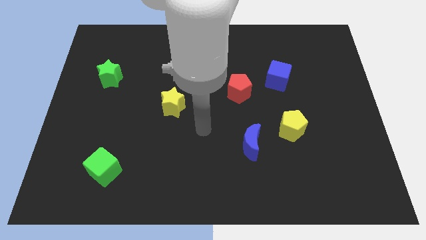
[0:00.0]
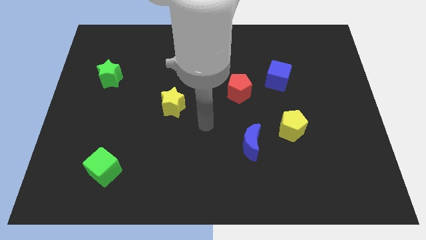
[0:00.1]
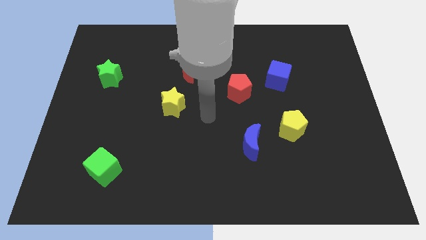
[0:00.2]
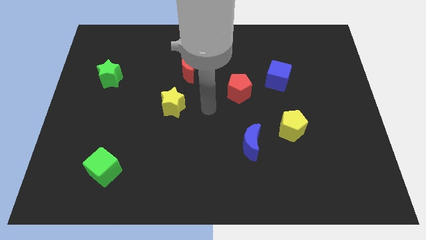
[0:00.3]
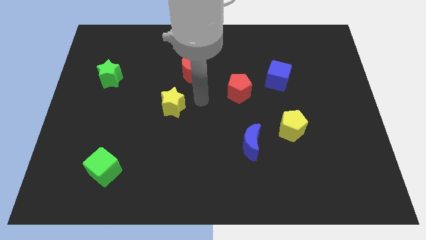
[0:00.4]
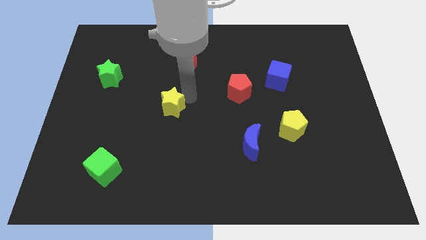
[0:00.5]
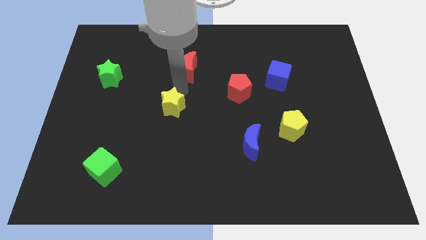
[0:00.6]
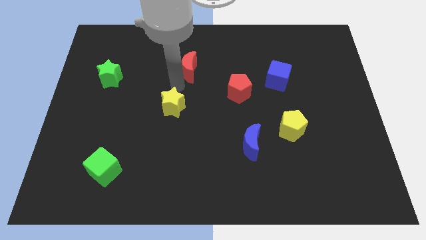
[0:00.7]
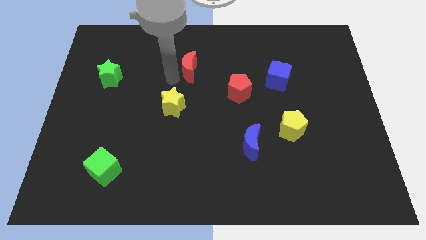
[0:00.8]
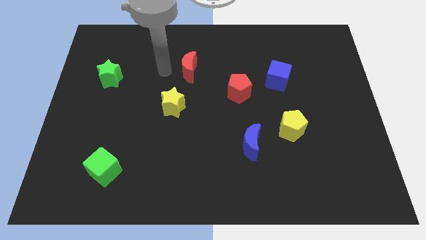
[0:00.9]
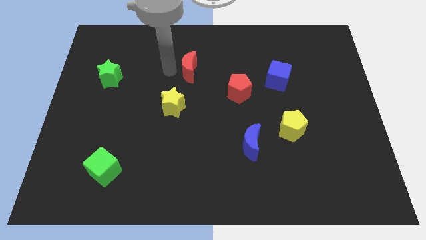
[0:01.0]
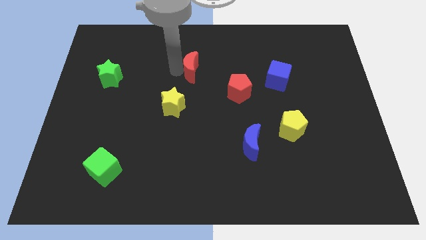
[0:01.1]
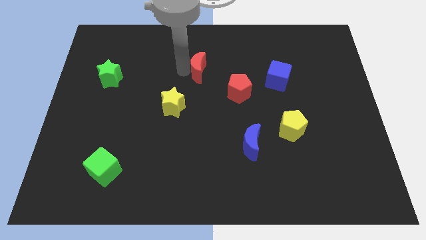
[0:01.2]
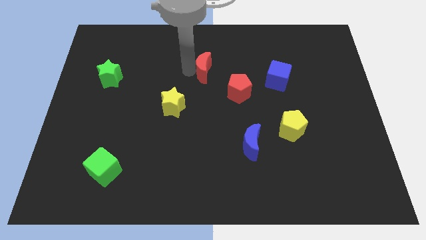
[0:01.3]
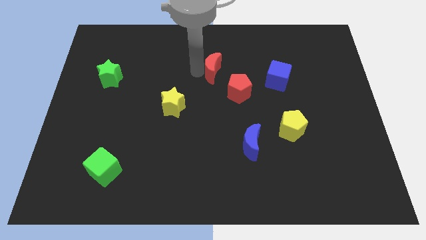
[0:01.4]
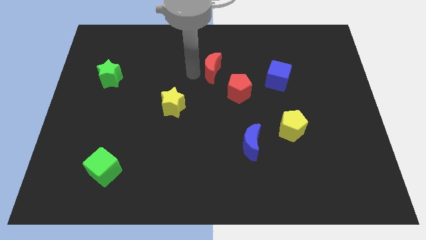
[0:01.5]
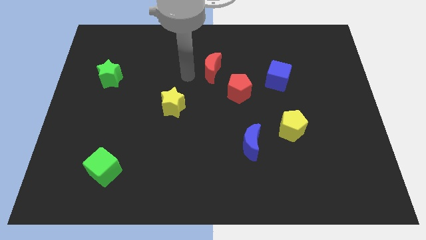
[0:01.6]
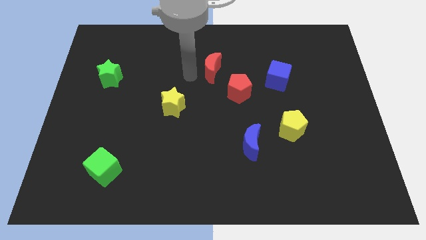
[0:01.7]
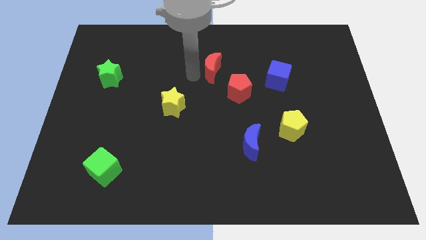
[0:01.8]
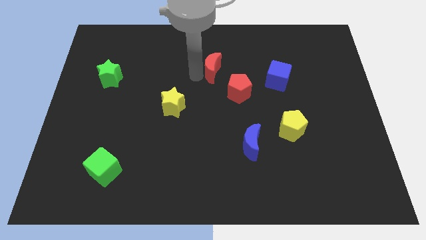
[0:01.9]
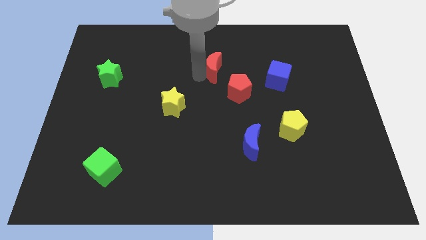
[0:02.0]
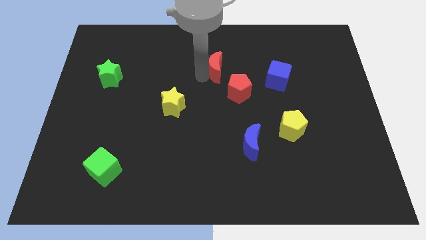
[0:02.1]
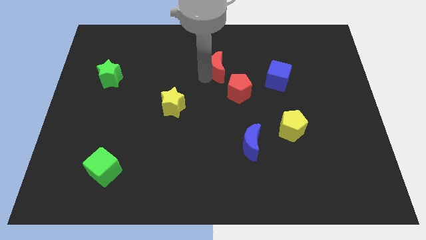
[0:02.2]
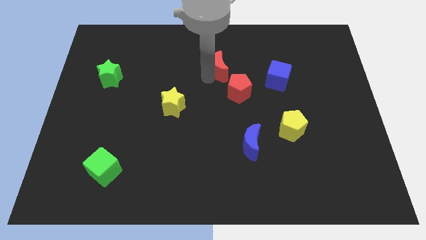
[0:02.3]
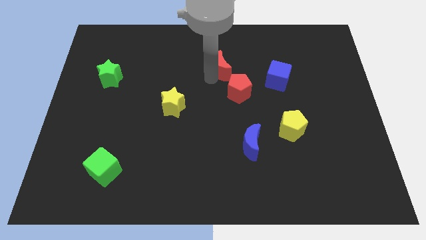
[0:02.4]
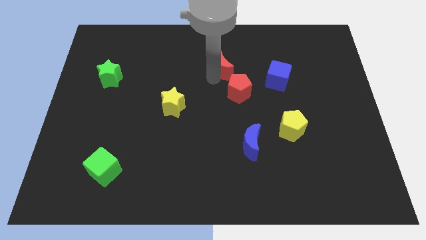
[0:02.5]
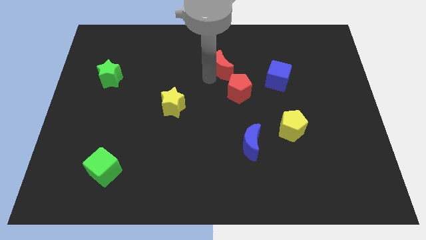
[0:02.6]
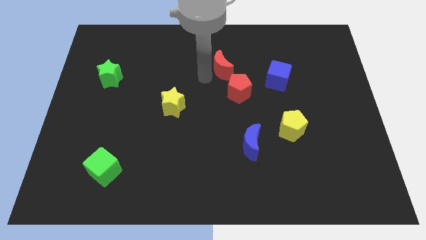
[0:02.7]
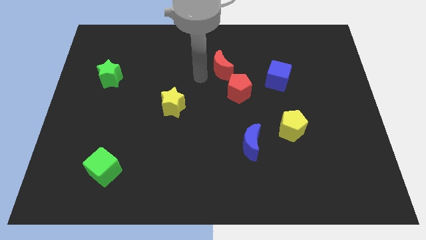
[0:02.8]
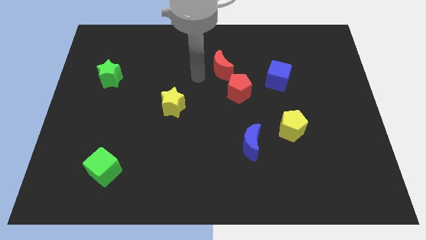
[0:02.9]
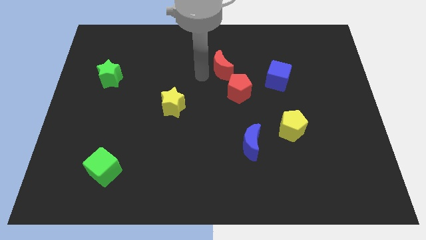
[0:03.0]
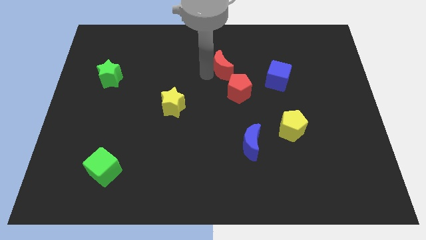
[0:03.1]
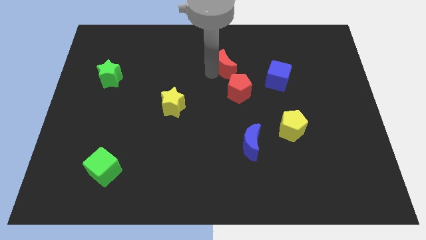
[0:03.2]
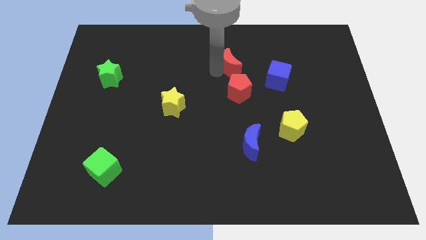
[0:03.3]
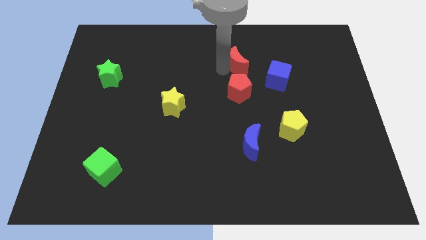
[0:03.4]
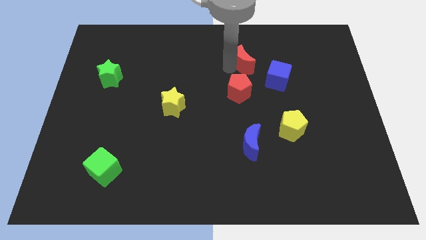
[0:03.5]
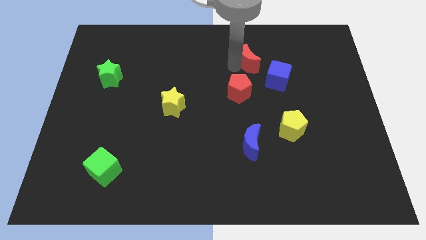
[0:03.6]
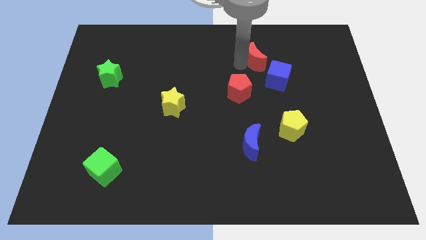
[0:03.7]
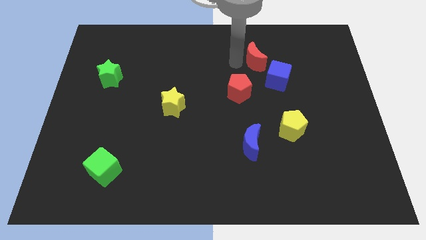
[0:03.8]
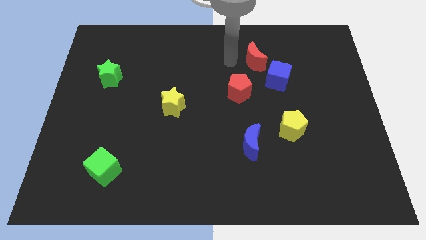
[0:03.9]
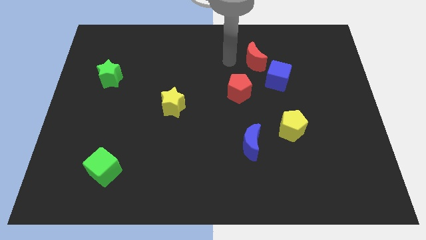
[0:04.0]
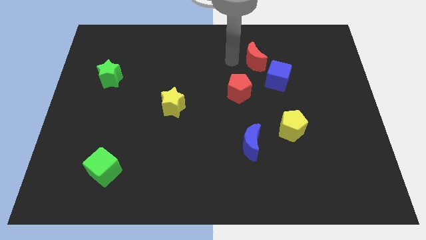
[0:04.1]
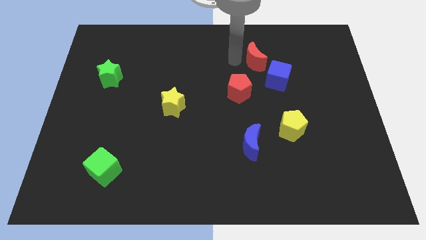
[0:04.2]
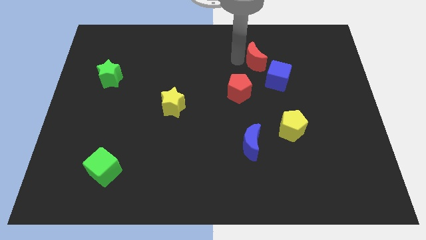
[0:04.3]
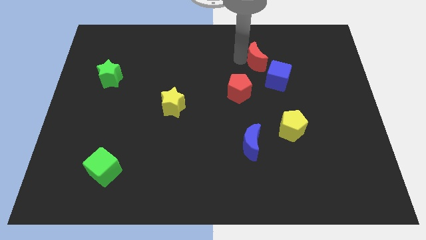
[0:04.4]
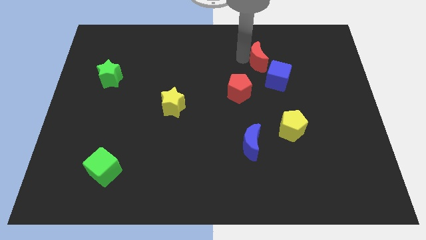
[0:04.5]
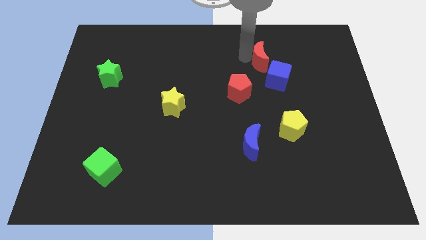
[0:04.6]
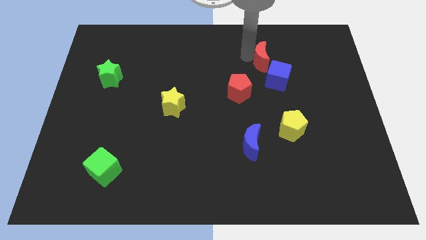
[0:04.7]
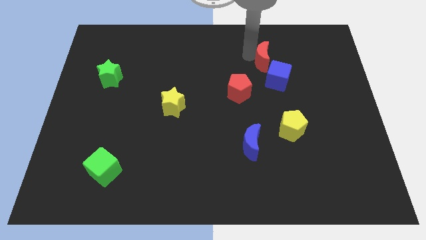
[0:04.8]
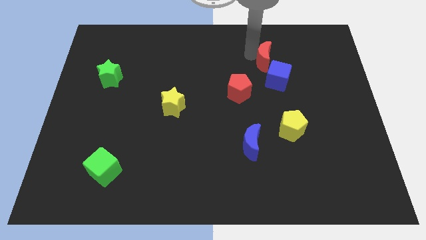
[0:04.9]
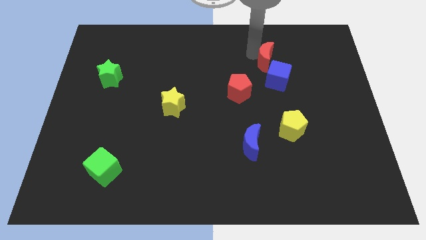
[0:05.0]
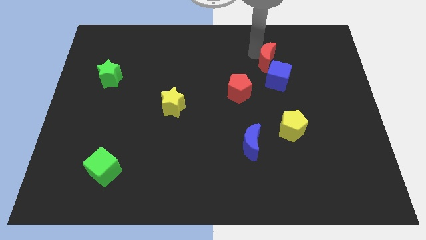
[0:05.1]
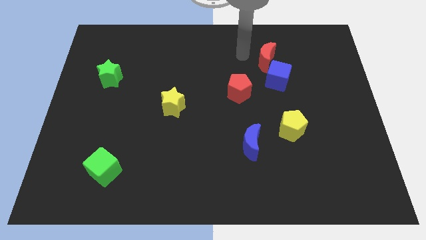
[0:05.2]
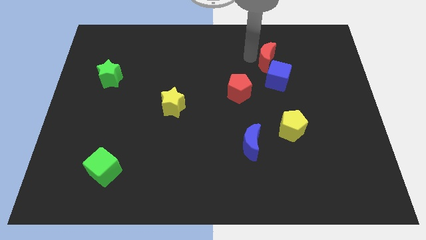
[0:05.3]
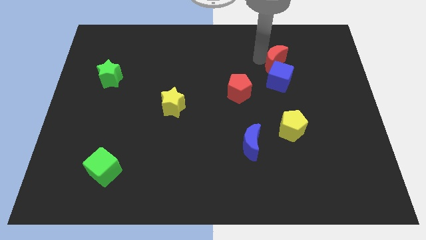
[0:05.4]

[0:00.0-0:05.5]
move the red moon right

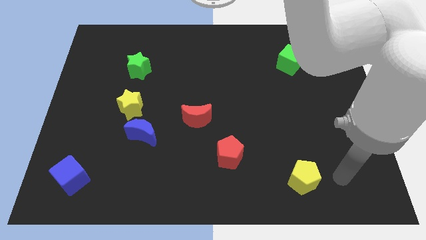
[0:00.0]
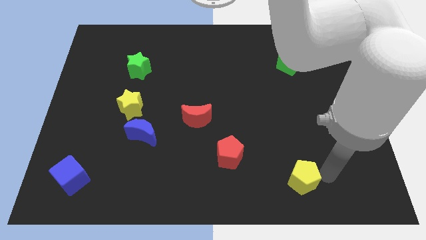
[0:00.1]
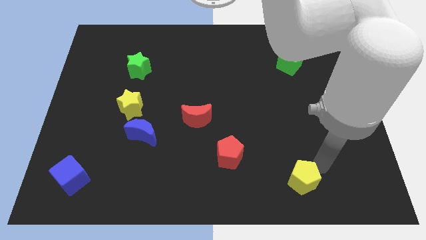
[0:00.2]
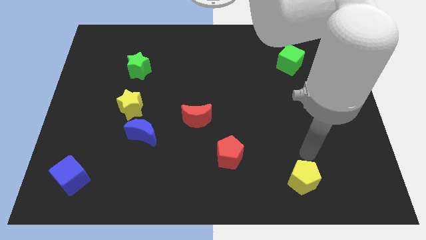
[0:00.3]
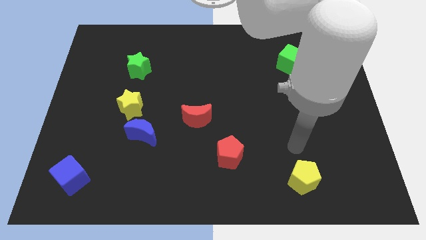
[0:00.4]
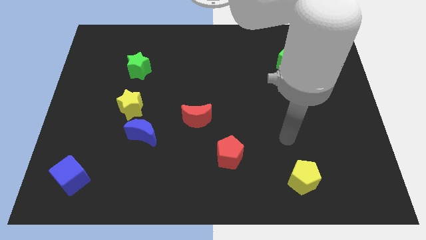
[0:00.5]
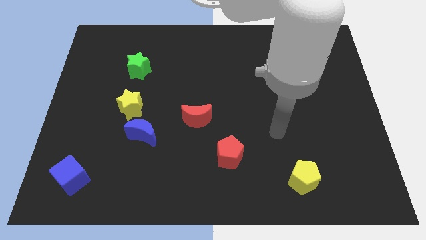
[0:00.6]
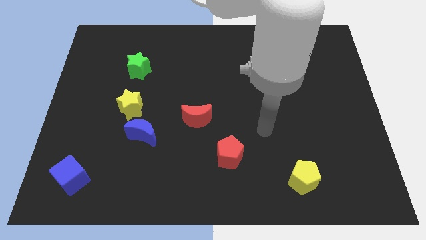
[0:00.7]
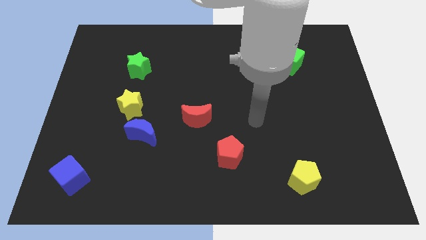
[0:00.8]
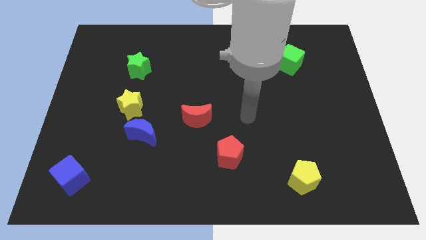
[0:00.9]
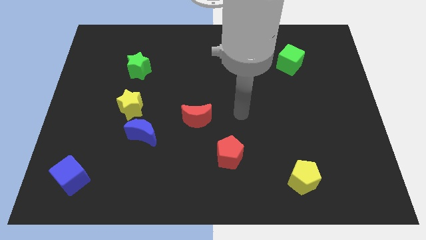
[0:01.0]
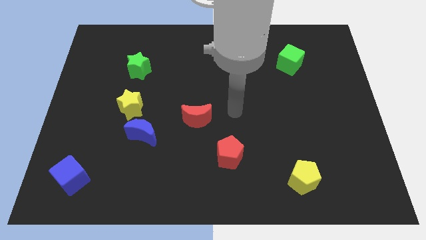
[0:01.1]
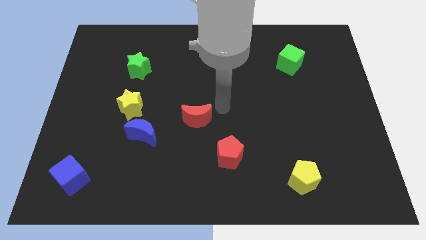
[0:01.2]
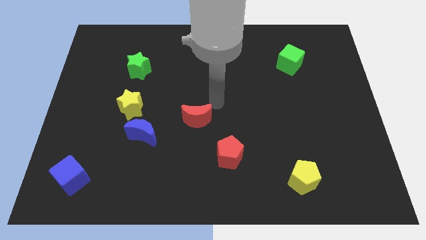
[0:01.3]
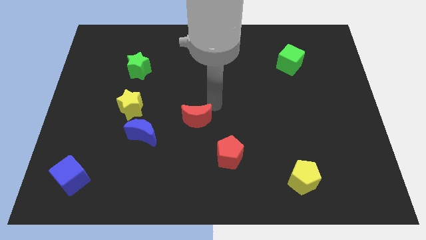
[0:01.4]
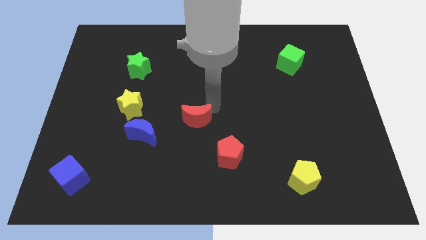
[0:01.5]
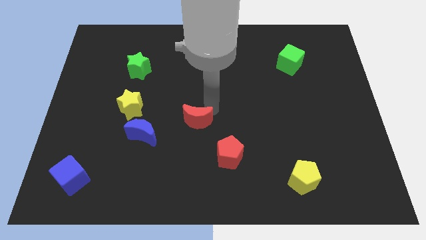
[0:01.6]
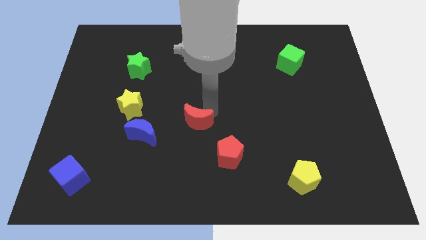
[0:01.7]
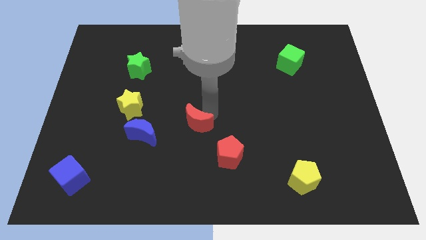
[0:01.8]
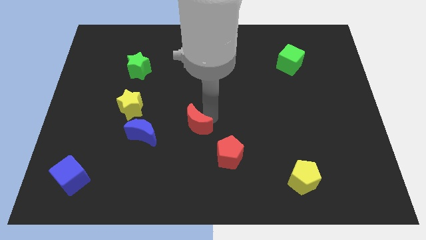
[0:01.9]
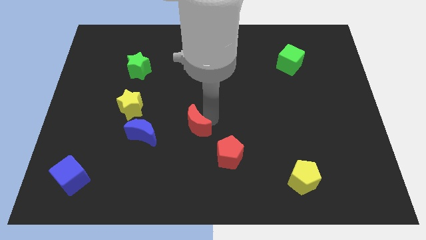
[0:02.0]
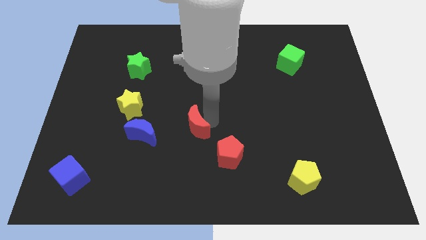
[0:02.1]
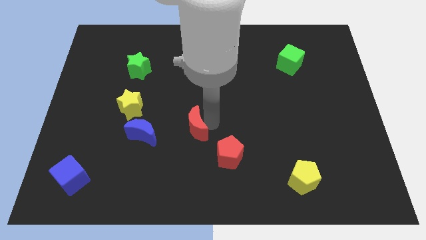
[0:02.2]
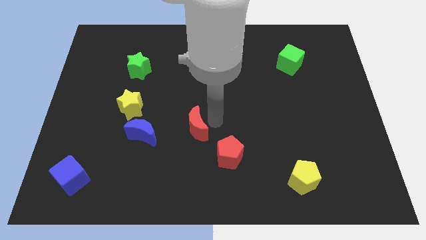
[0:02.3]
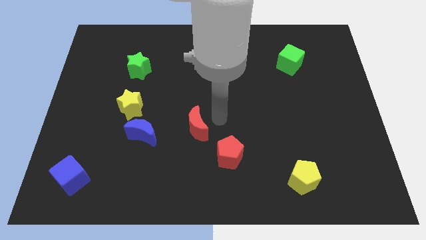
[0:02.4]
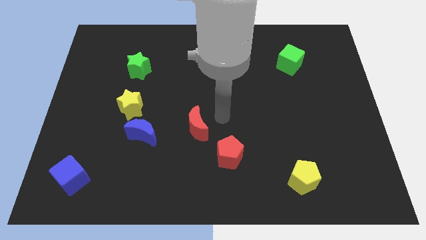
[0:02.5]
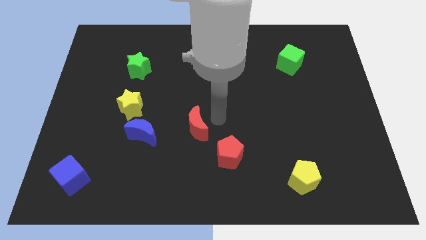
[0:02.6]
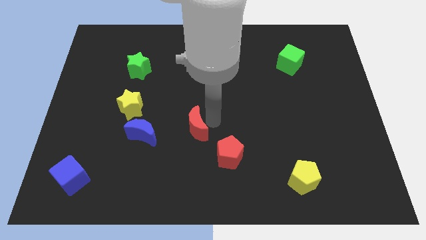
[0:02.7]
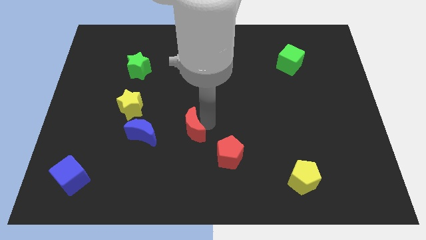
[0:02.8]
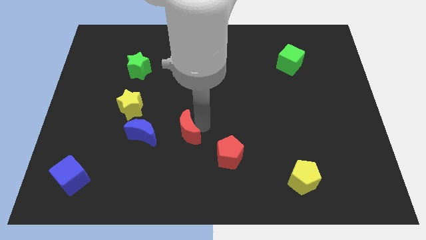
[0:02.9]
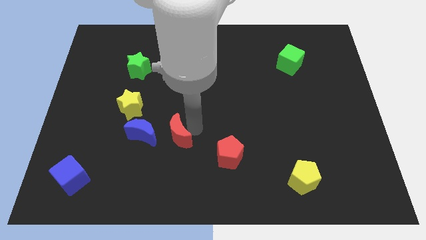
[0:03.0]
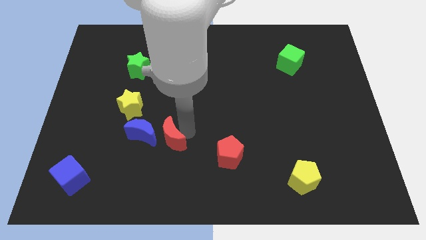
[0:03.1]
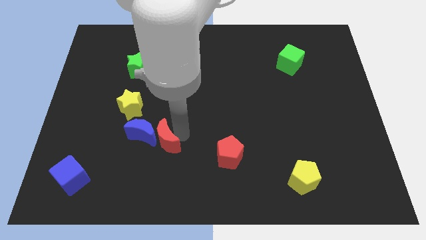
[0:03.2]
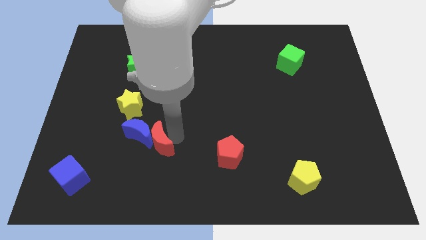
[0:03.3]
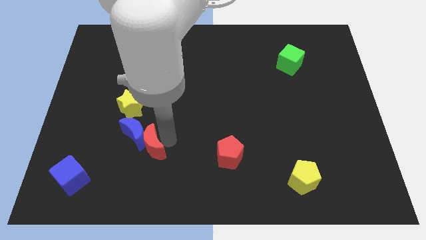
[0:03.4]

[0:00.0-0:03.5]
slightly move the red moon left
